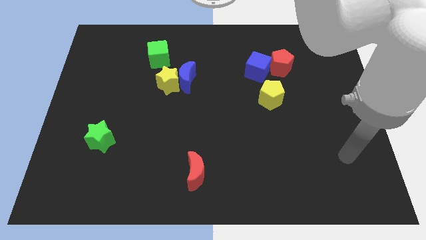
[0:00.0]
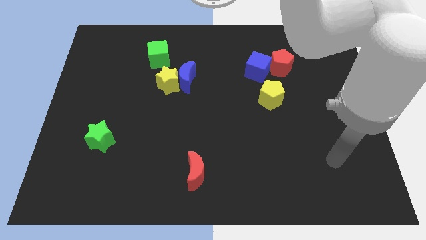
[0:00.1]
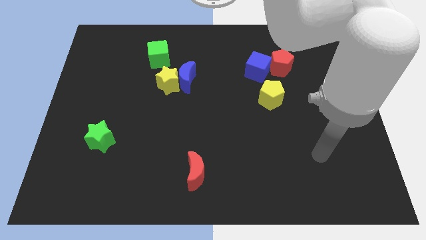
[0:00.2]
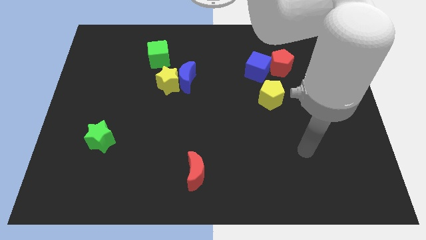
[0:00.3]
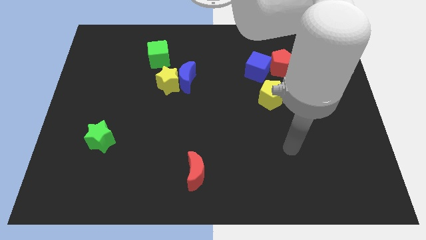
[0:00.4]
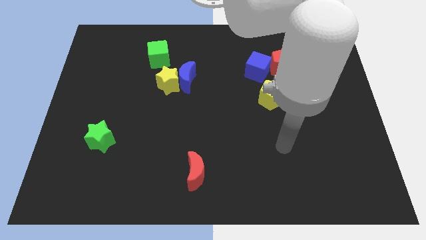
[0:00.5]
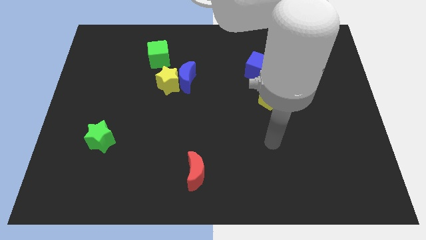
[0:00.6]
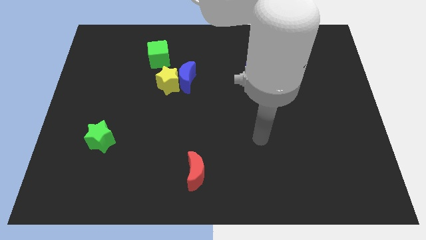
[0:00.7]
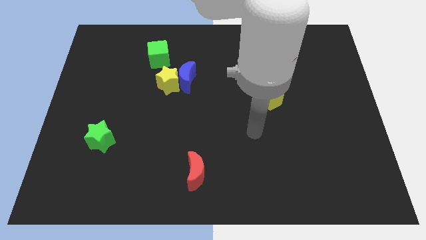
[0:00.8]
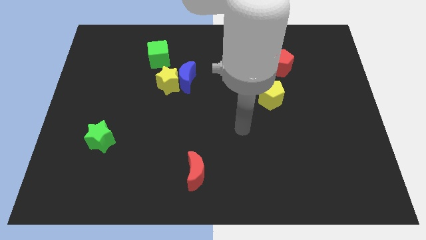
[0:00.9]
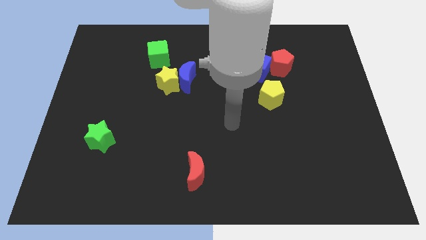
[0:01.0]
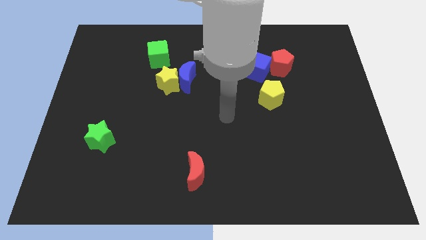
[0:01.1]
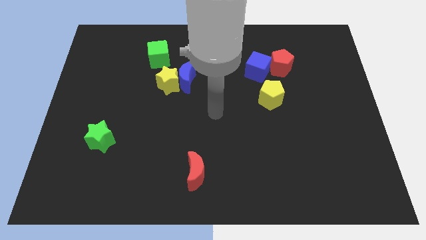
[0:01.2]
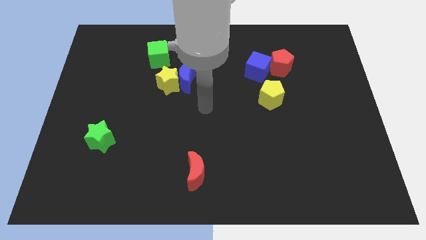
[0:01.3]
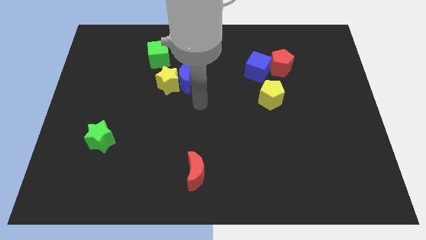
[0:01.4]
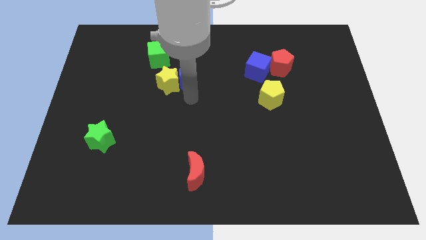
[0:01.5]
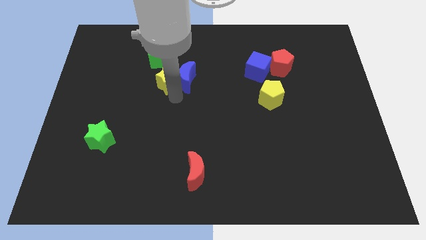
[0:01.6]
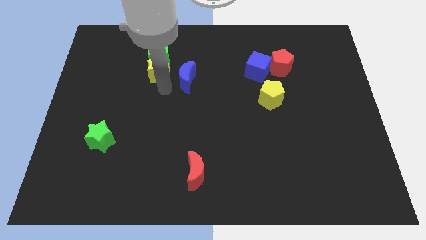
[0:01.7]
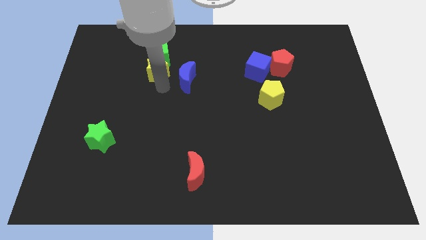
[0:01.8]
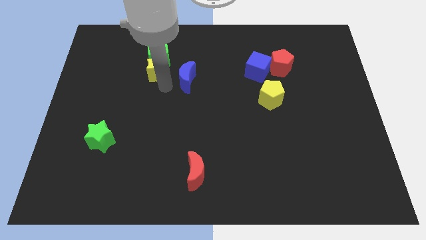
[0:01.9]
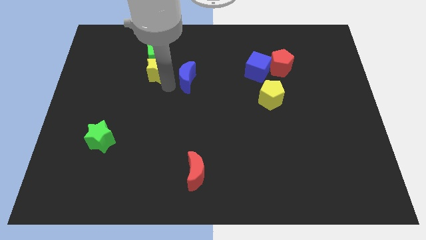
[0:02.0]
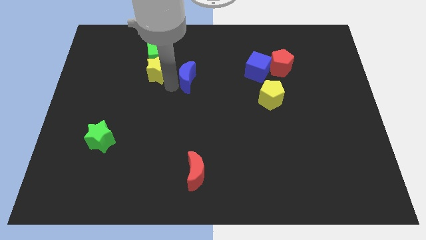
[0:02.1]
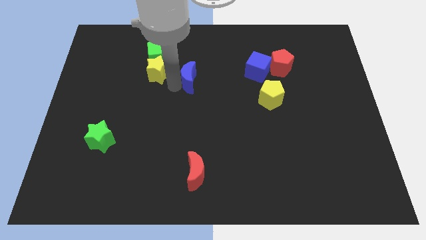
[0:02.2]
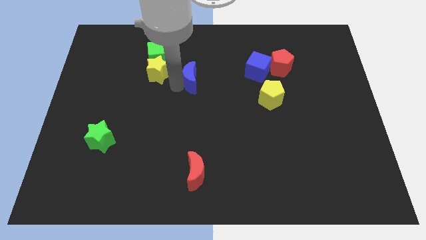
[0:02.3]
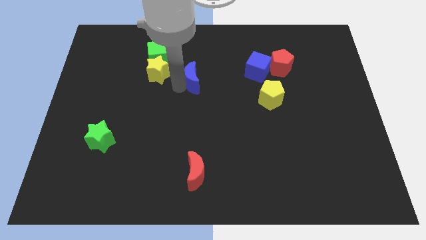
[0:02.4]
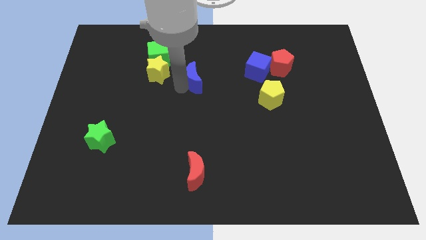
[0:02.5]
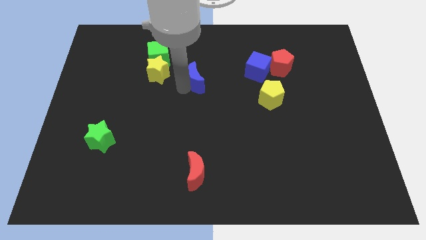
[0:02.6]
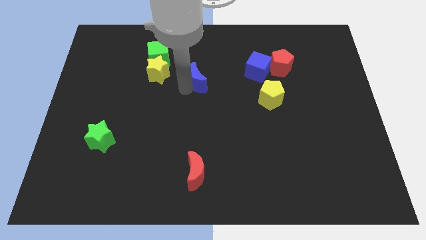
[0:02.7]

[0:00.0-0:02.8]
move the blue moon away from the yellow star

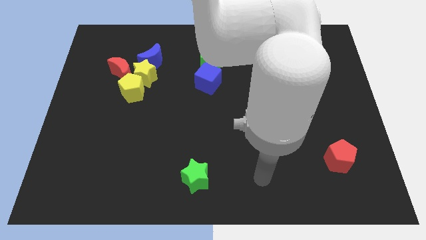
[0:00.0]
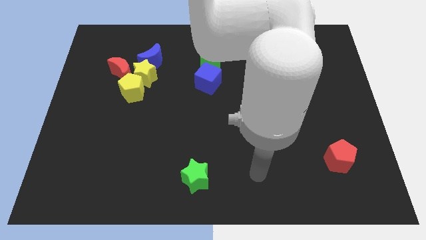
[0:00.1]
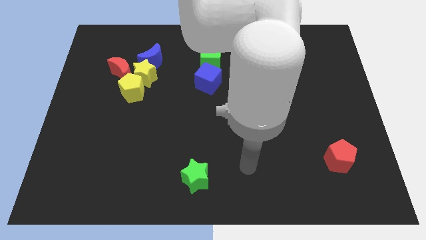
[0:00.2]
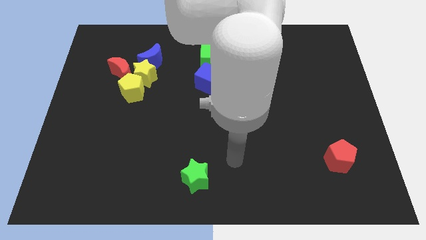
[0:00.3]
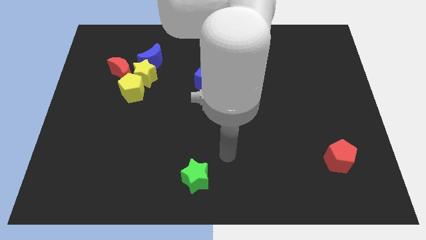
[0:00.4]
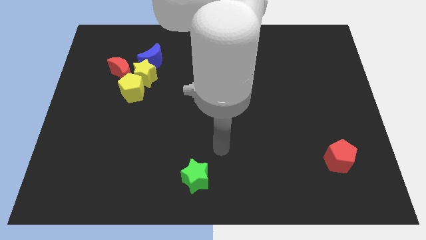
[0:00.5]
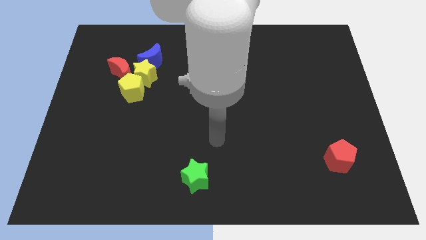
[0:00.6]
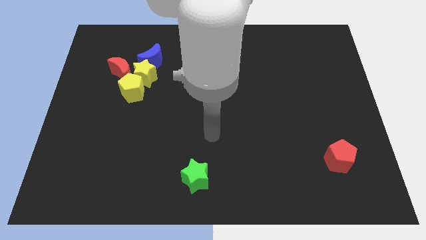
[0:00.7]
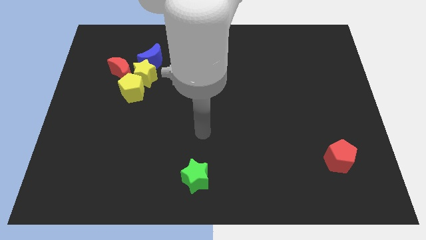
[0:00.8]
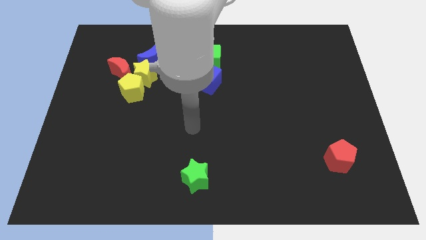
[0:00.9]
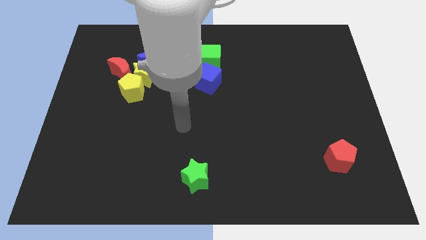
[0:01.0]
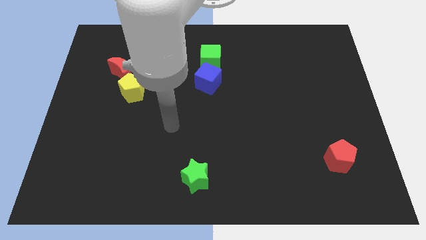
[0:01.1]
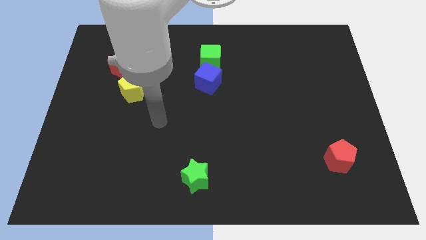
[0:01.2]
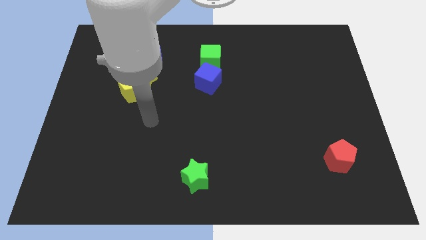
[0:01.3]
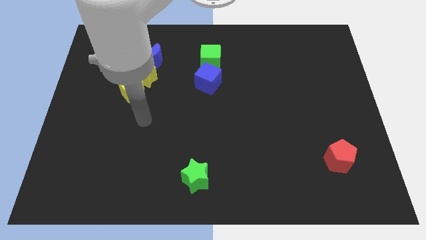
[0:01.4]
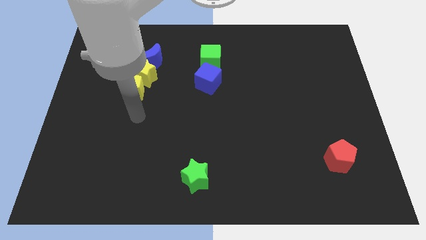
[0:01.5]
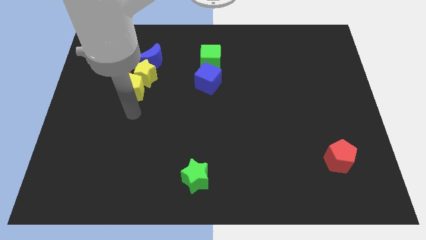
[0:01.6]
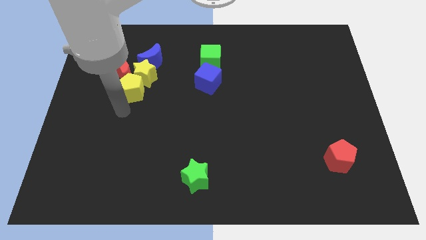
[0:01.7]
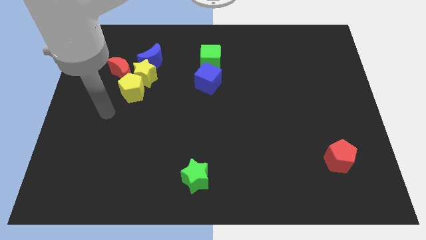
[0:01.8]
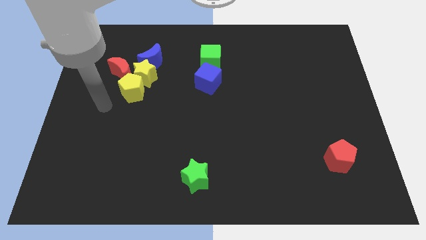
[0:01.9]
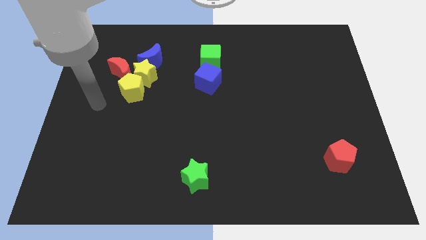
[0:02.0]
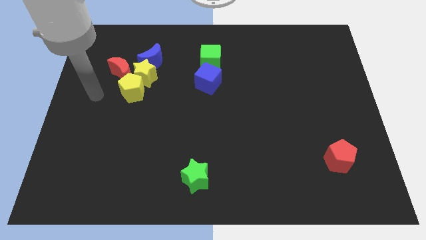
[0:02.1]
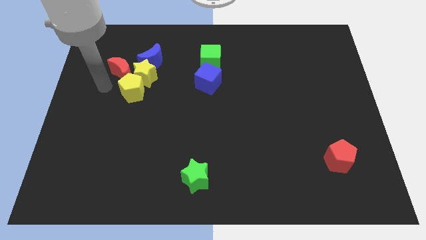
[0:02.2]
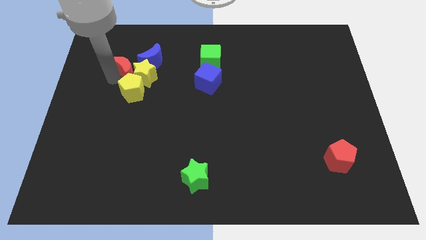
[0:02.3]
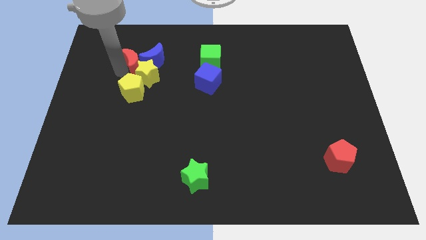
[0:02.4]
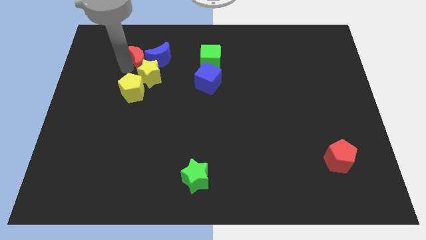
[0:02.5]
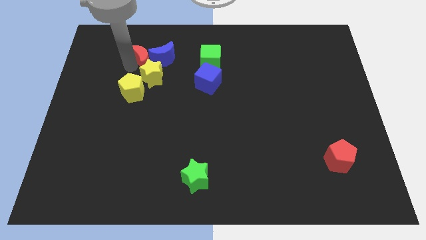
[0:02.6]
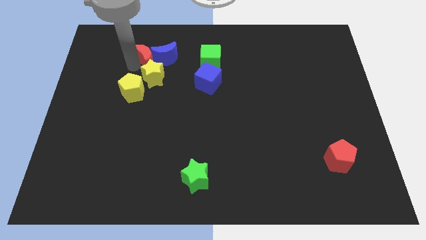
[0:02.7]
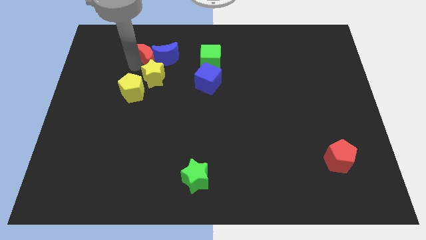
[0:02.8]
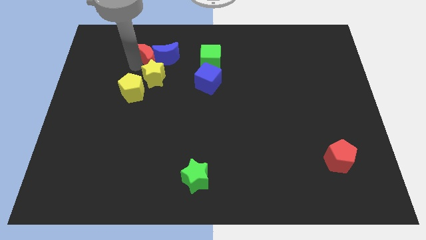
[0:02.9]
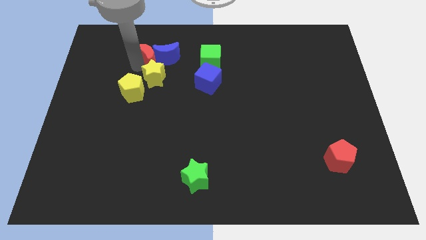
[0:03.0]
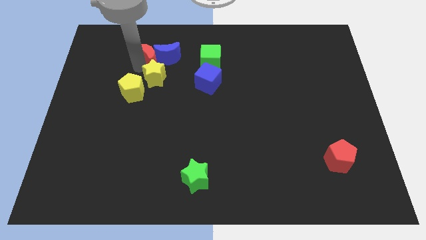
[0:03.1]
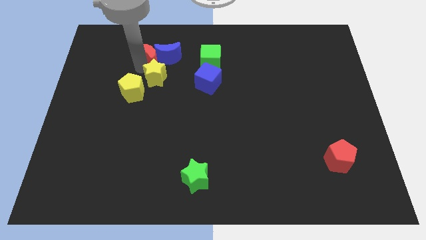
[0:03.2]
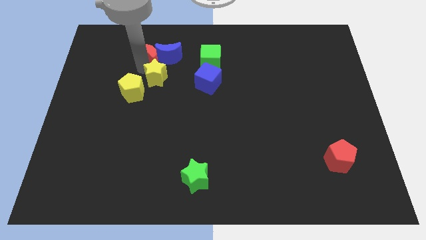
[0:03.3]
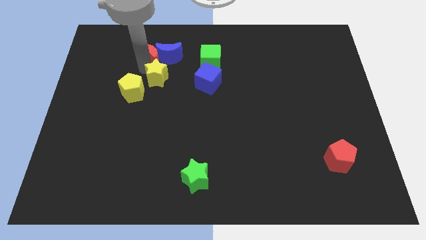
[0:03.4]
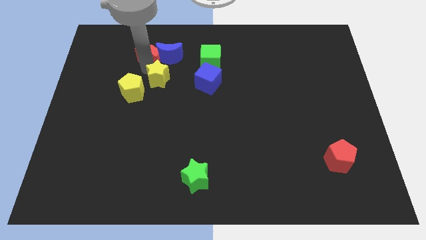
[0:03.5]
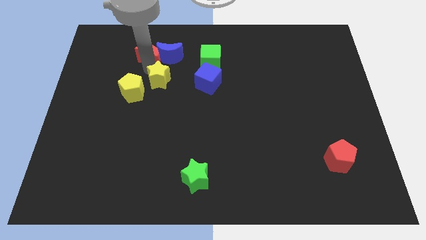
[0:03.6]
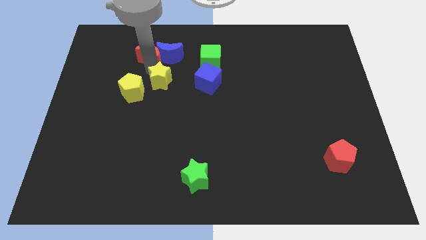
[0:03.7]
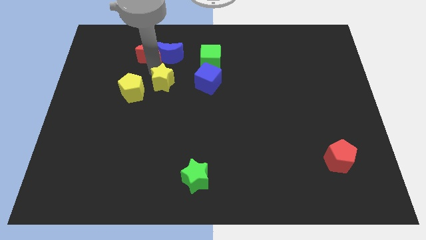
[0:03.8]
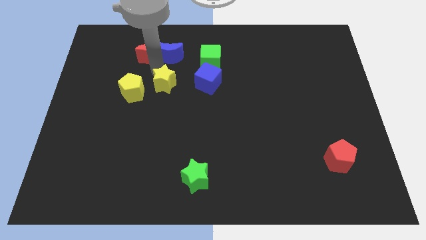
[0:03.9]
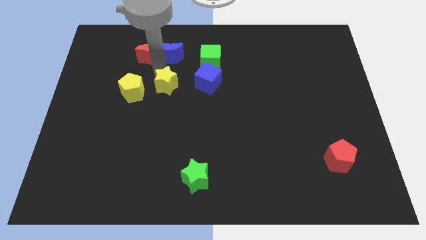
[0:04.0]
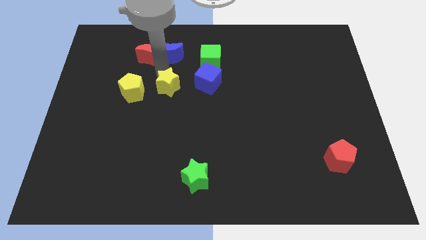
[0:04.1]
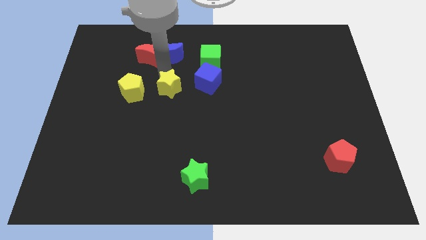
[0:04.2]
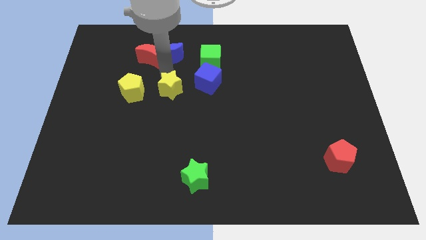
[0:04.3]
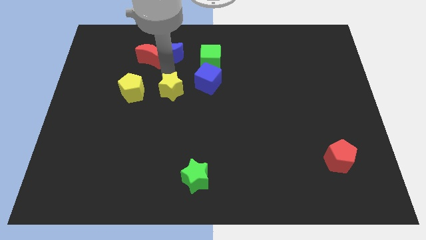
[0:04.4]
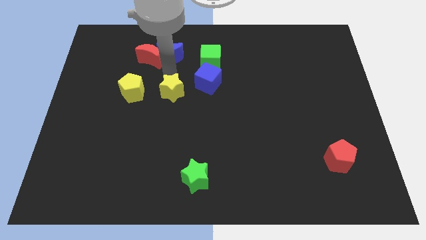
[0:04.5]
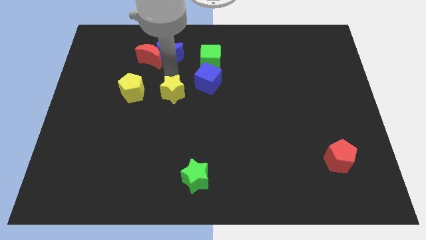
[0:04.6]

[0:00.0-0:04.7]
separate the yellow star from the group

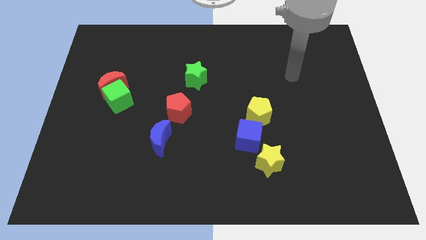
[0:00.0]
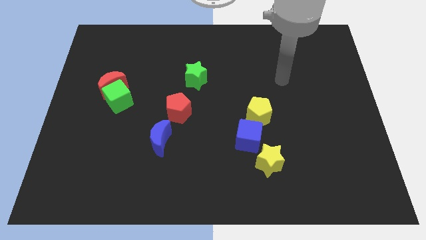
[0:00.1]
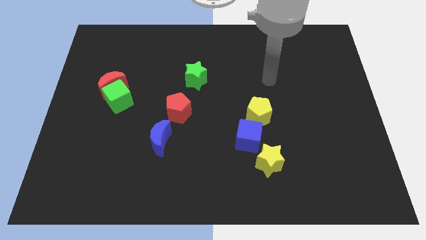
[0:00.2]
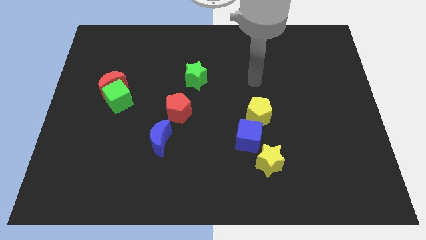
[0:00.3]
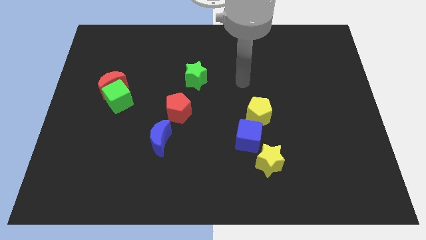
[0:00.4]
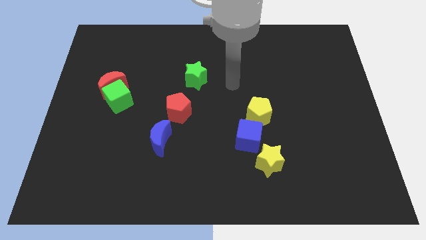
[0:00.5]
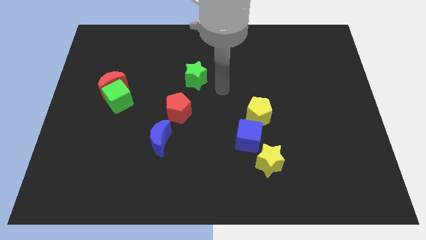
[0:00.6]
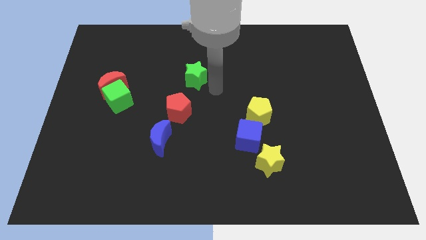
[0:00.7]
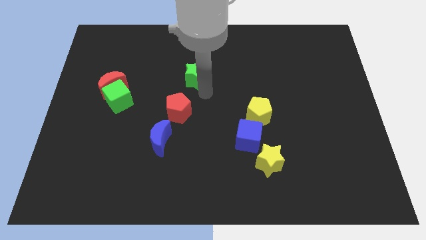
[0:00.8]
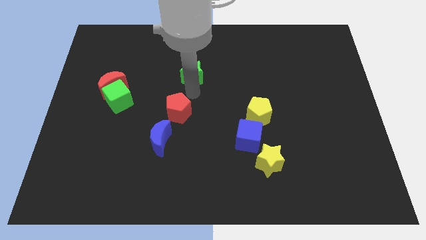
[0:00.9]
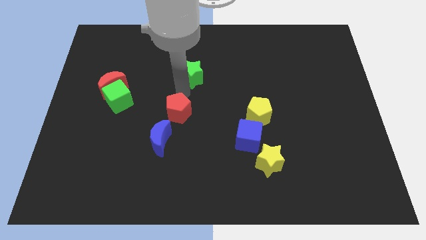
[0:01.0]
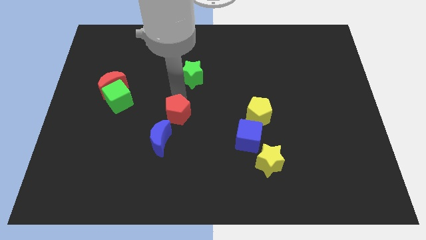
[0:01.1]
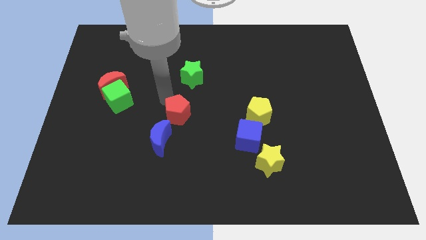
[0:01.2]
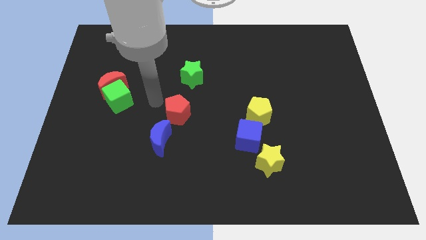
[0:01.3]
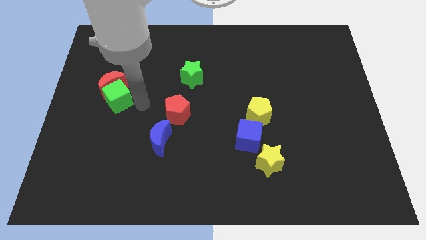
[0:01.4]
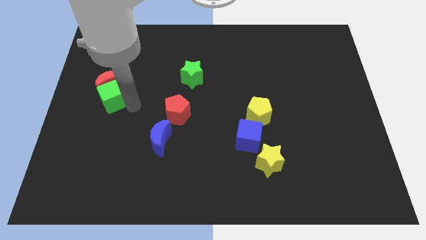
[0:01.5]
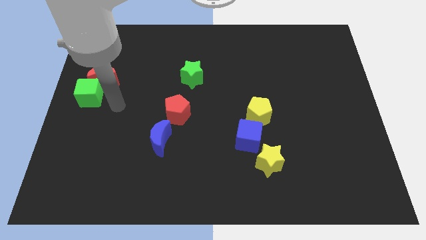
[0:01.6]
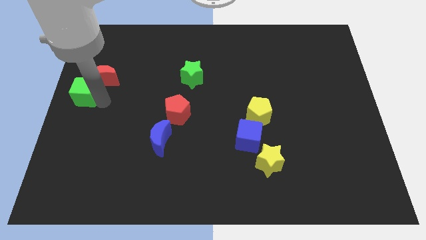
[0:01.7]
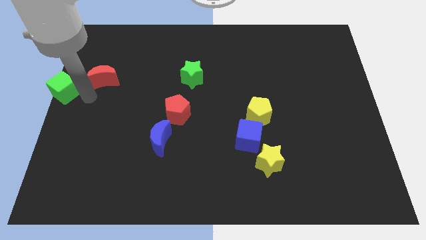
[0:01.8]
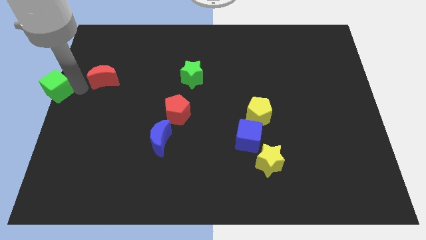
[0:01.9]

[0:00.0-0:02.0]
move the red moon away from the green cube
